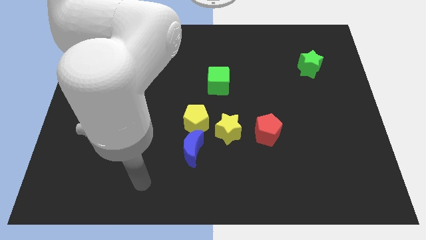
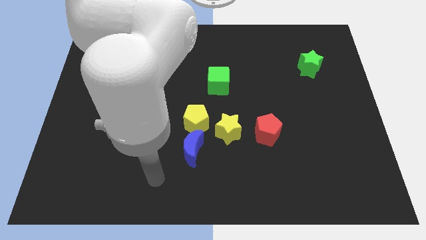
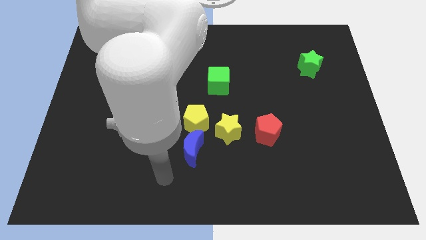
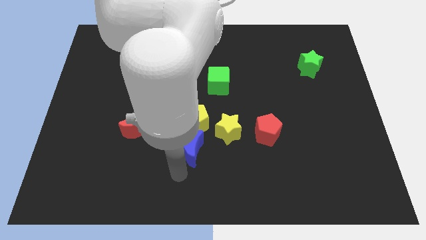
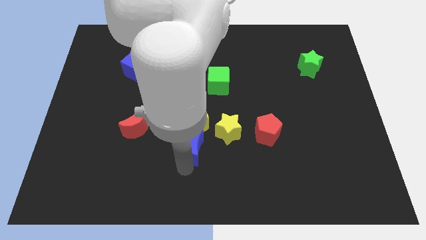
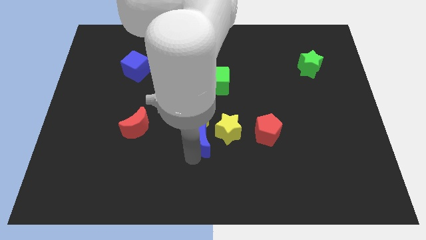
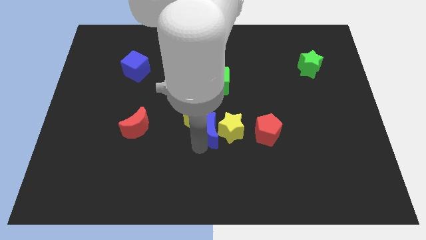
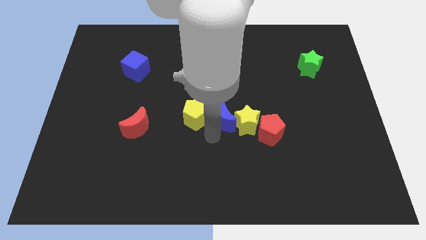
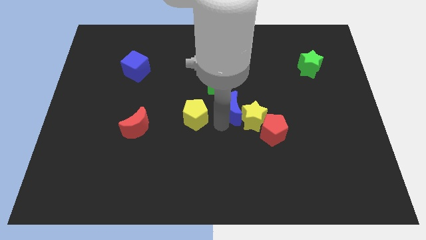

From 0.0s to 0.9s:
separate the yellow pentagon from the yellow star and blue moon

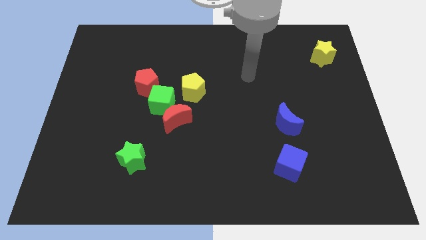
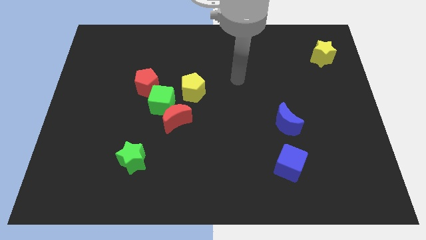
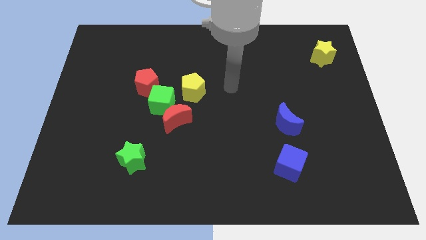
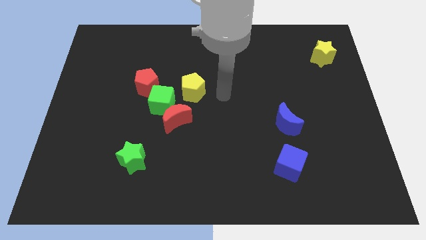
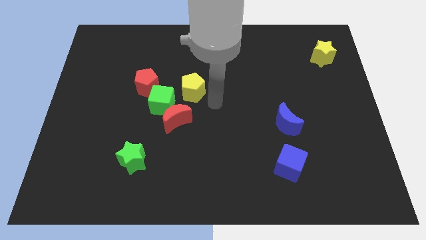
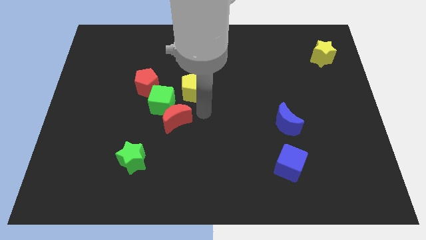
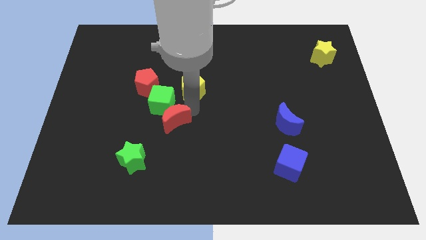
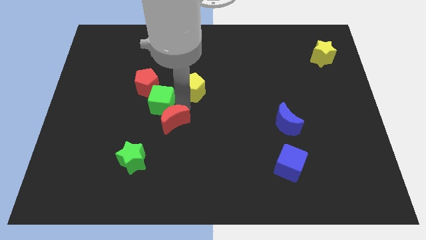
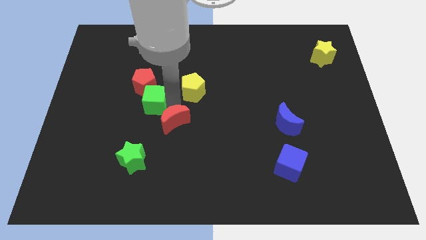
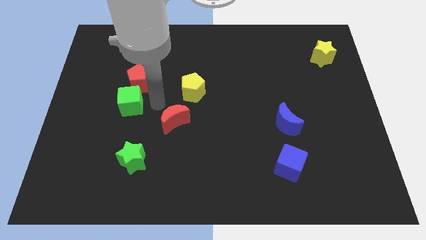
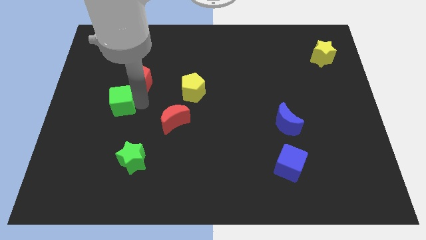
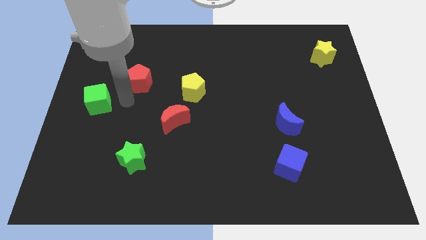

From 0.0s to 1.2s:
pull the red pentagon apart from the green cube

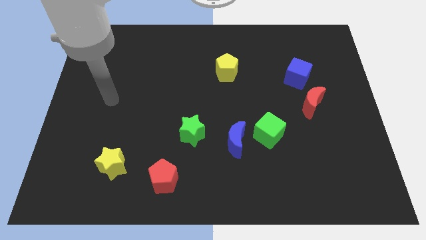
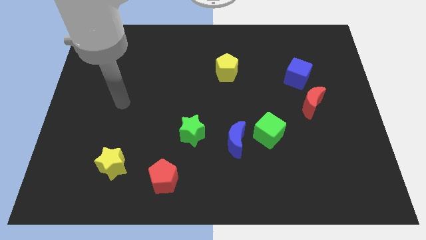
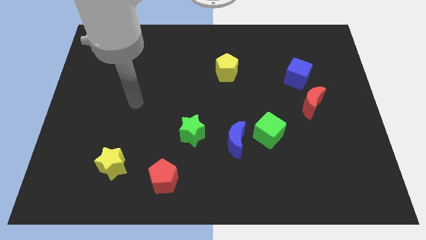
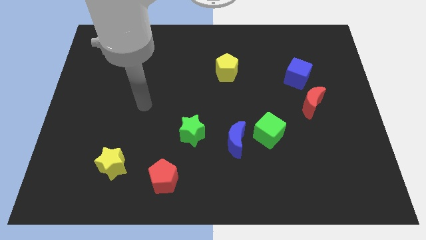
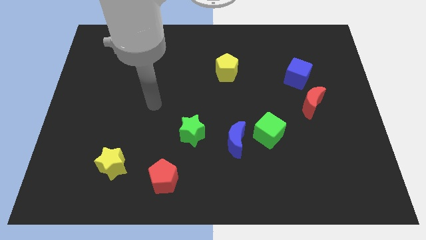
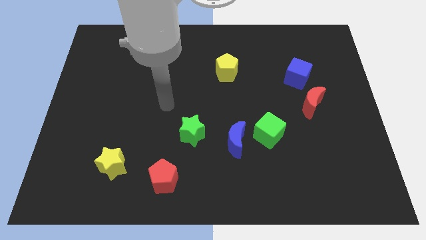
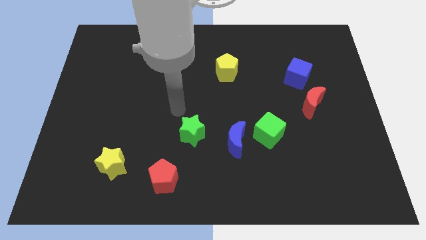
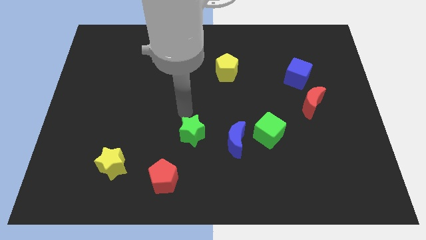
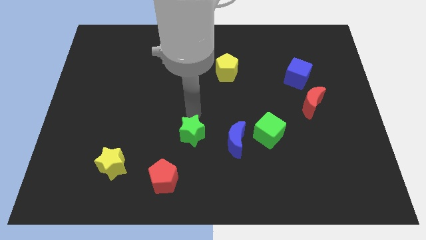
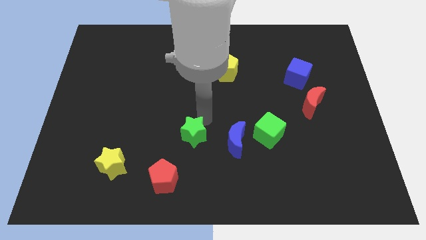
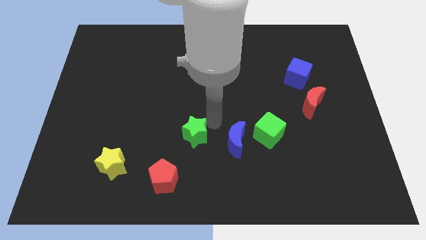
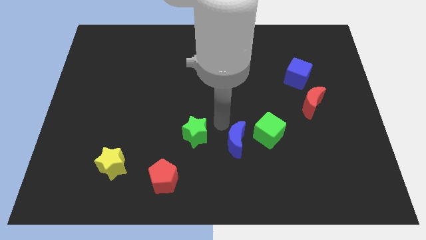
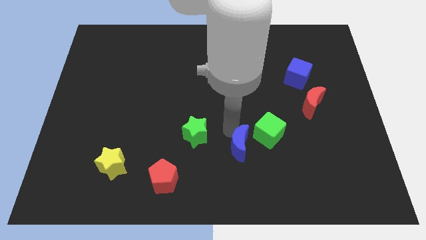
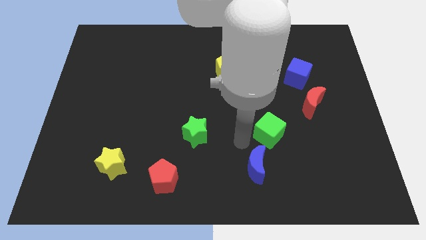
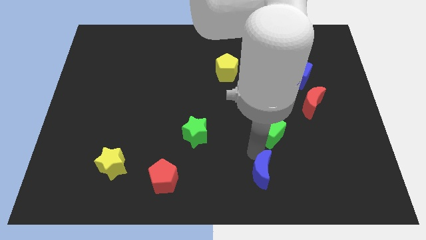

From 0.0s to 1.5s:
pull the green cube apart from the blue moon

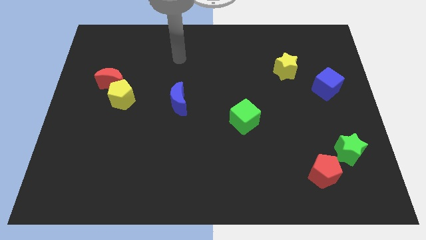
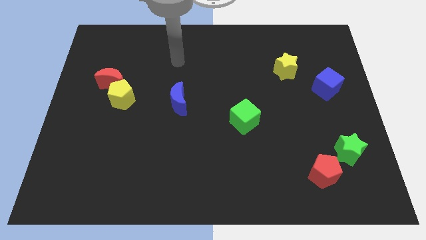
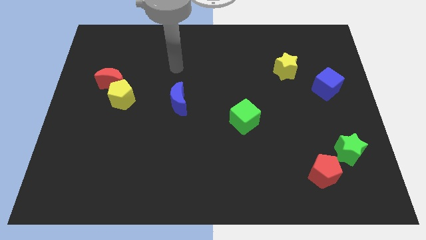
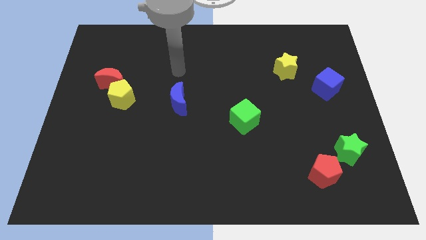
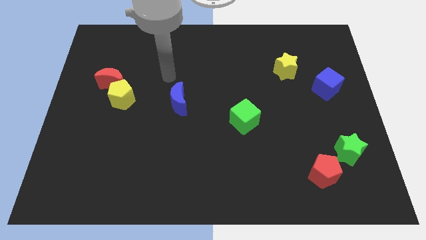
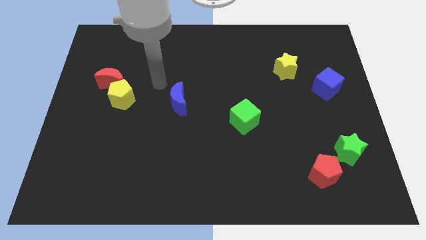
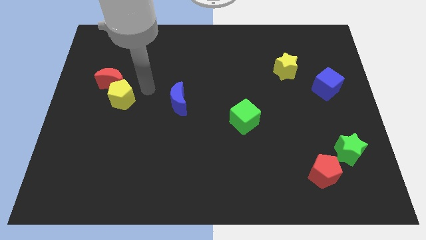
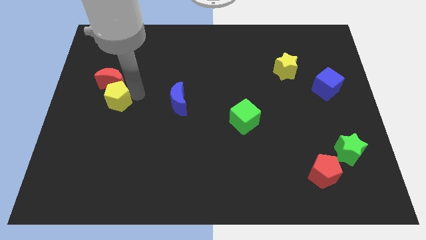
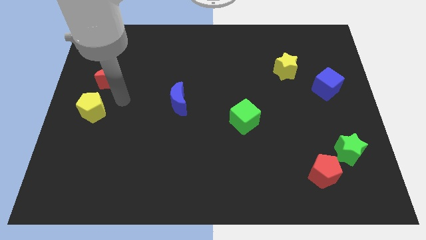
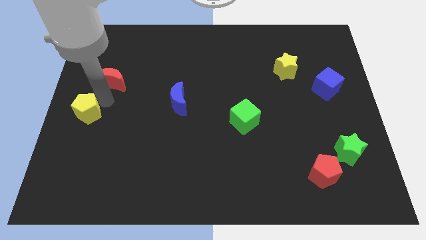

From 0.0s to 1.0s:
pull the red moon apart from the yellow pentagon

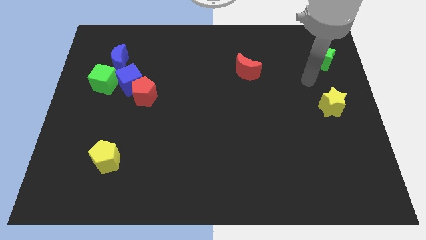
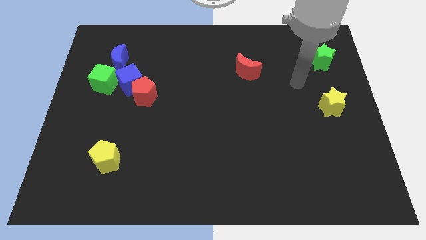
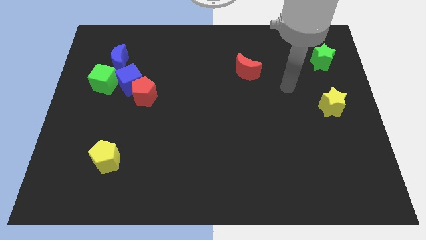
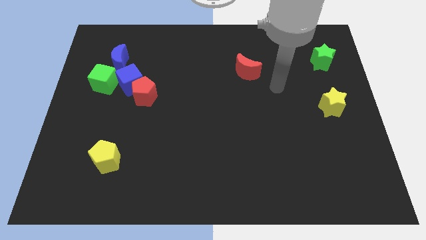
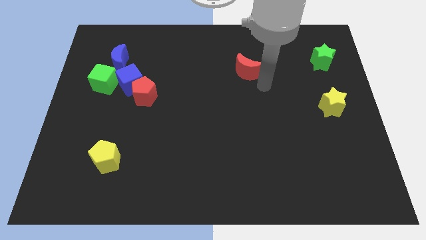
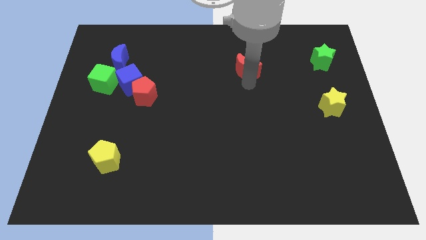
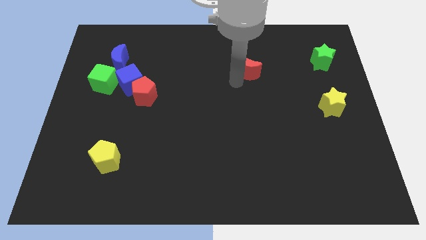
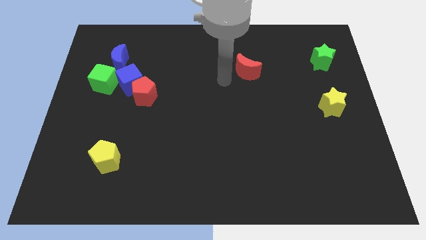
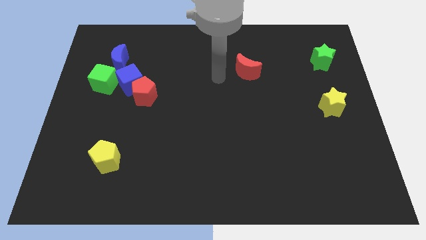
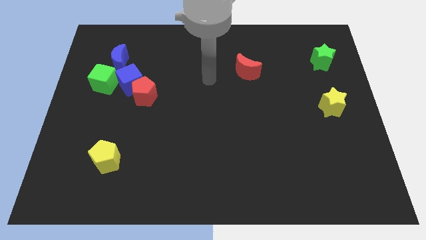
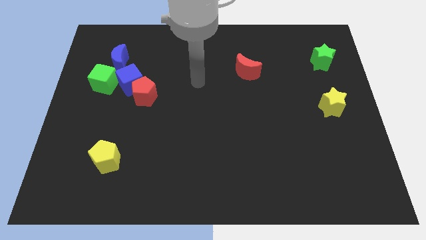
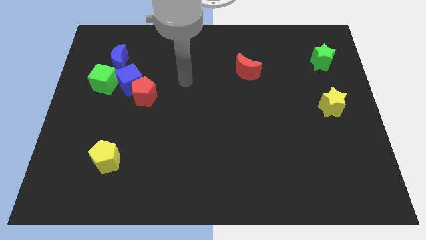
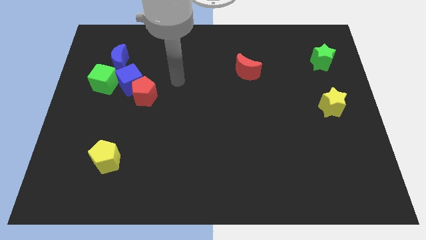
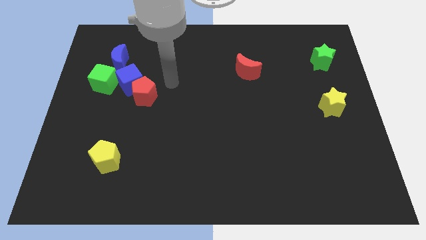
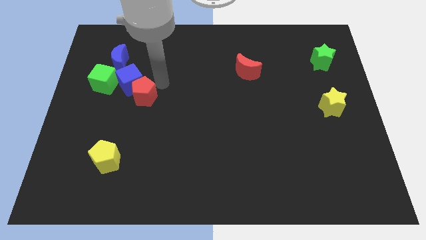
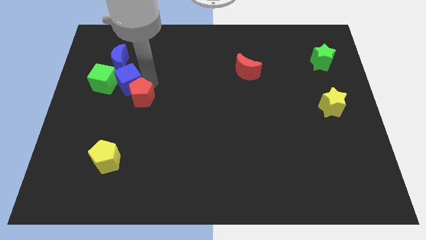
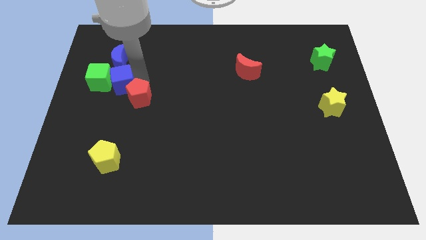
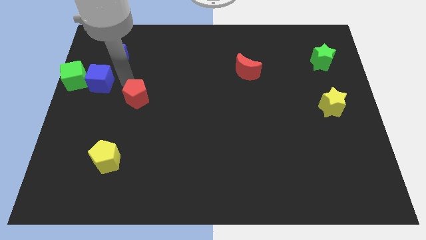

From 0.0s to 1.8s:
move the red pentagon away from the blue cube

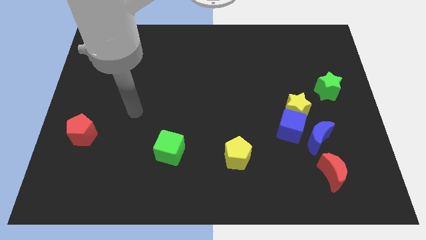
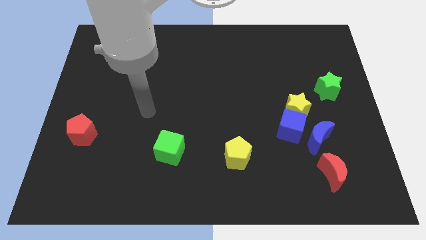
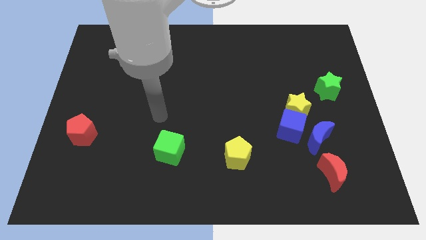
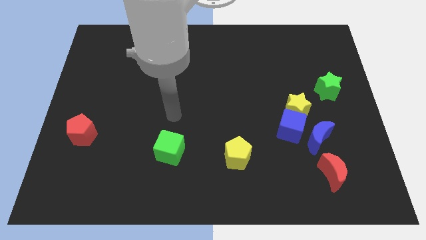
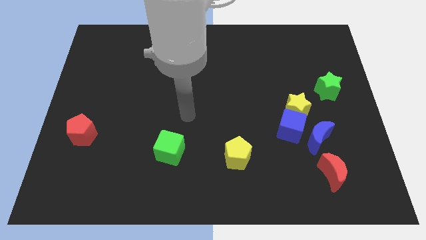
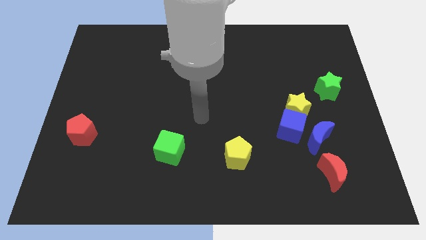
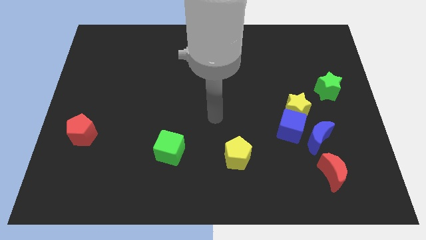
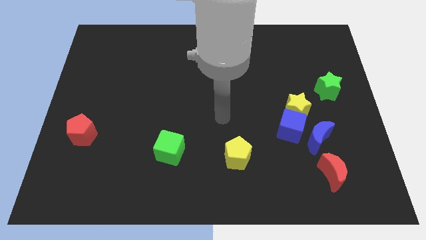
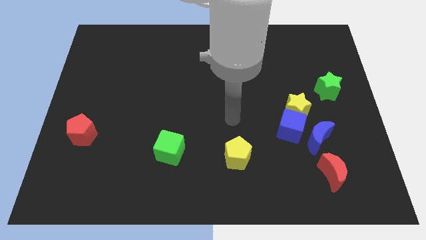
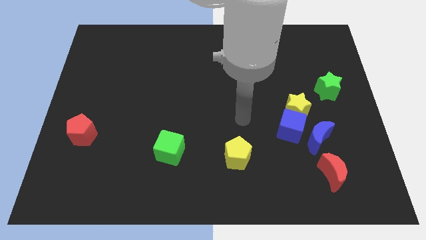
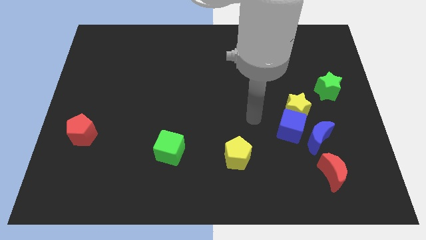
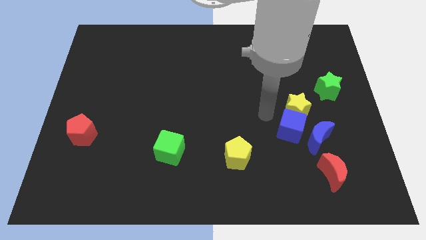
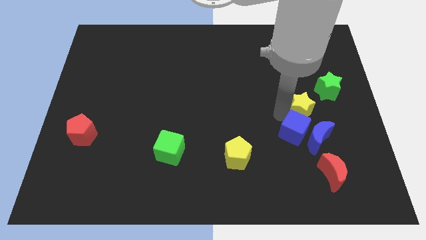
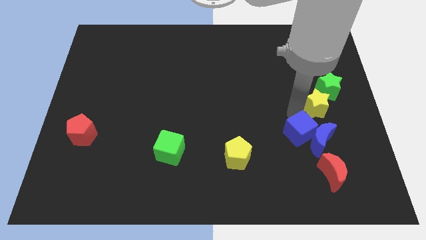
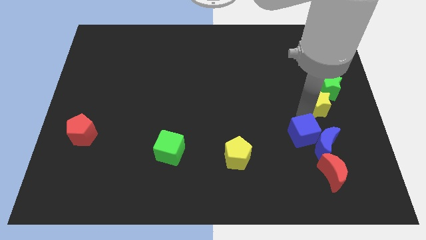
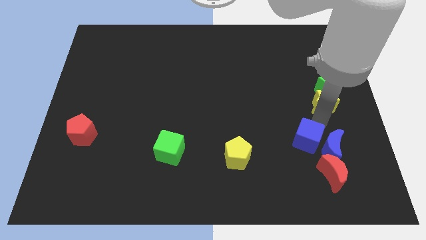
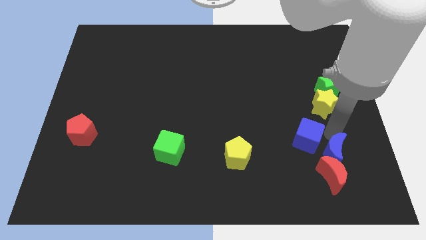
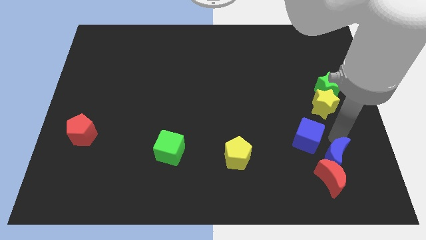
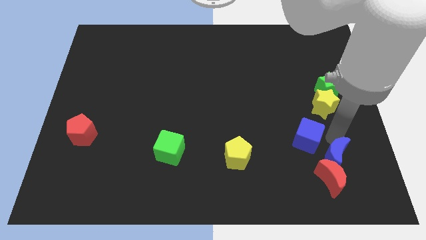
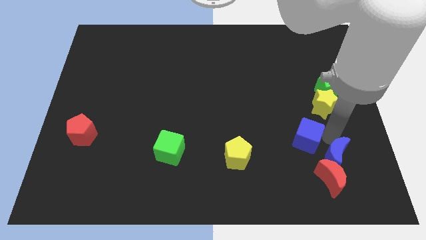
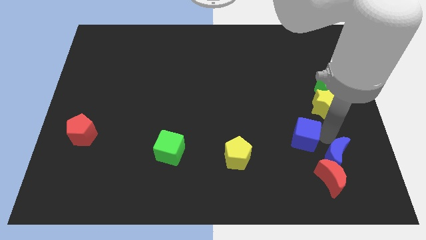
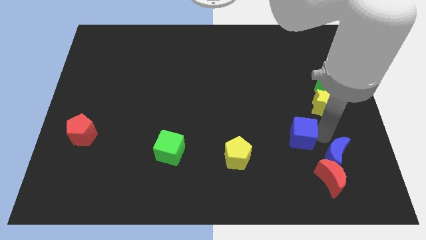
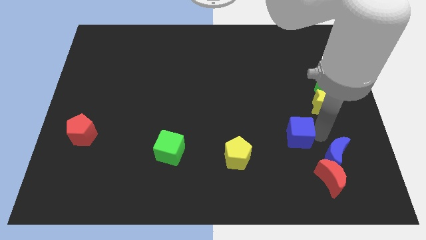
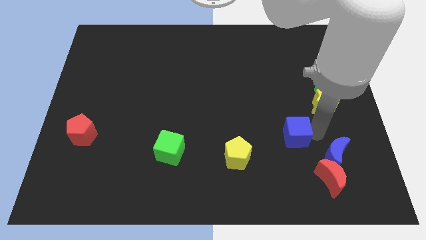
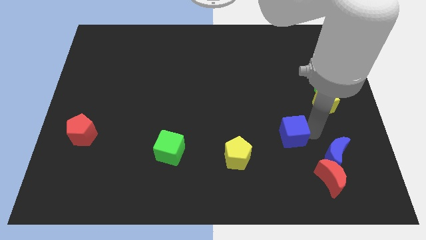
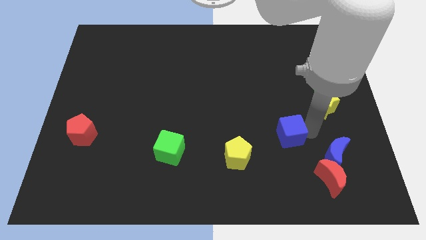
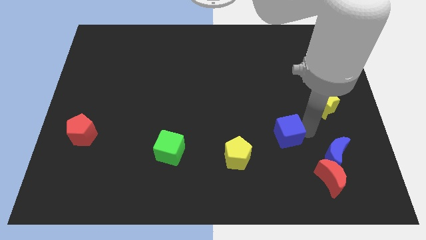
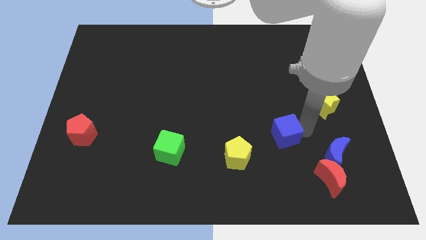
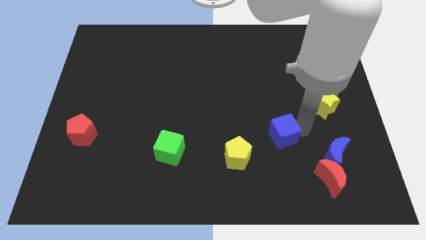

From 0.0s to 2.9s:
pull the blue cube apart from the yellow star and blue moon
